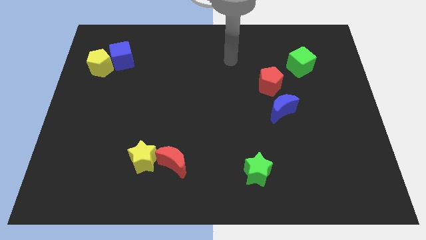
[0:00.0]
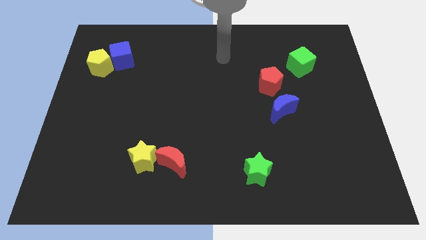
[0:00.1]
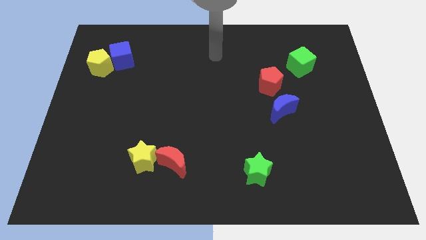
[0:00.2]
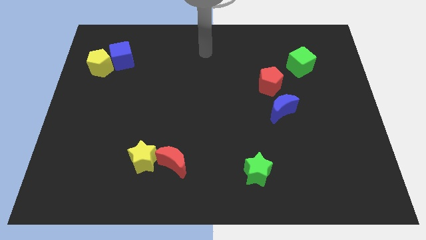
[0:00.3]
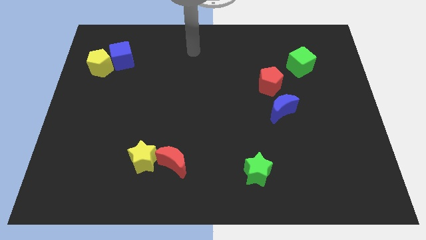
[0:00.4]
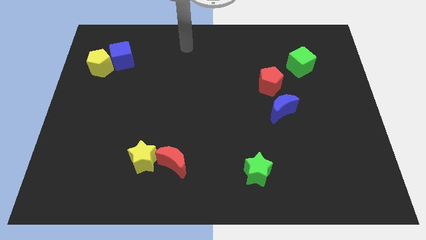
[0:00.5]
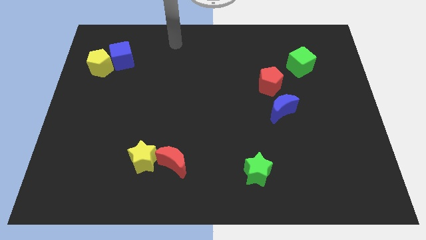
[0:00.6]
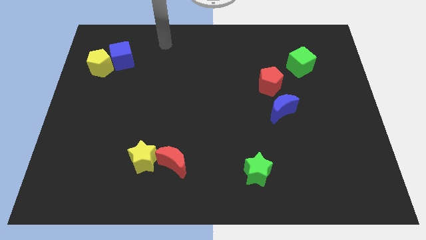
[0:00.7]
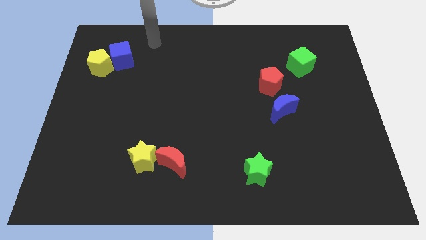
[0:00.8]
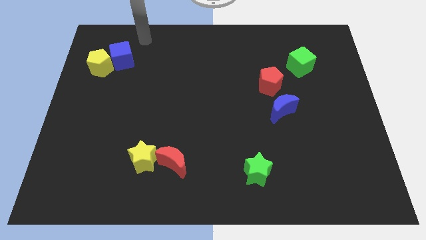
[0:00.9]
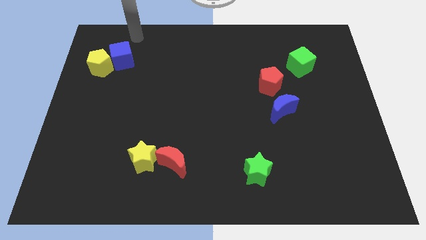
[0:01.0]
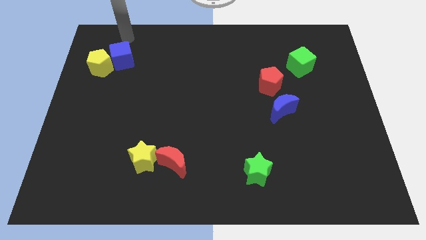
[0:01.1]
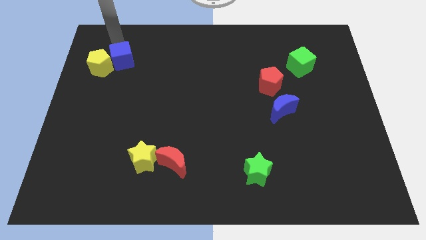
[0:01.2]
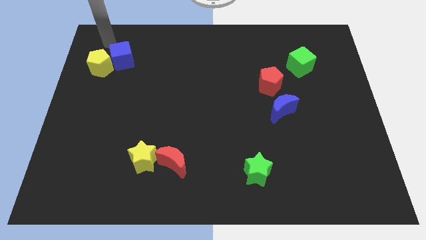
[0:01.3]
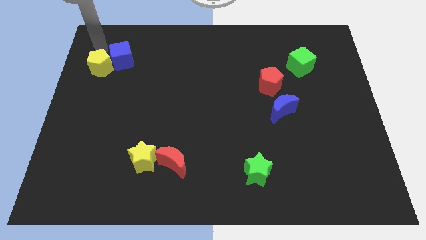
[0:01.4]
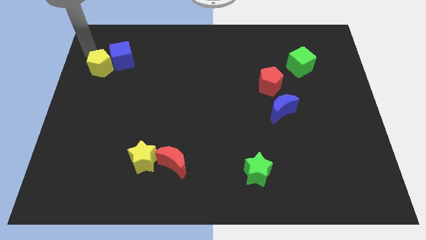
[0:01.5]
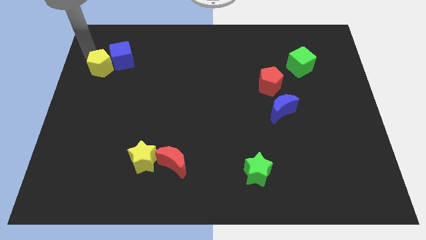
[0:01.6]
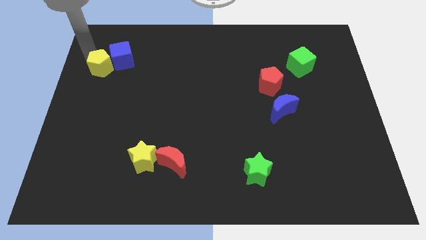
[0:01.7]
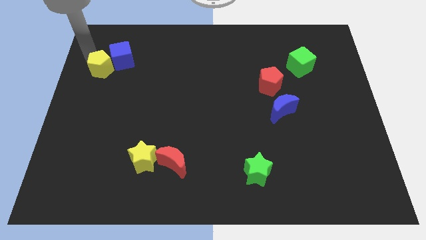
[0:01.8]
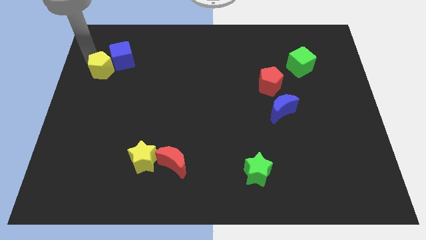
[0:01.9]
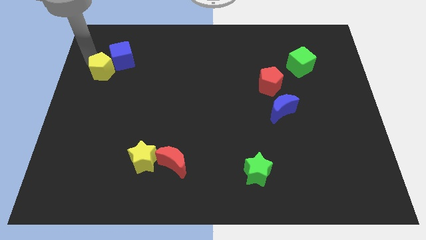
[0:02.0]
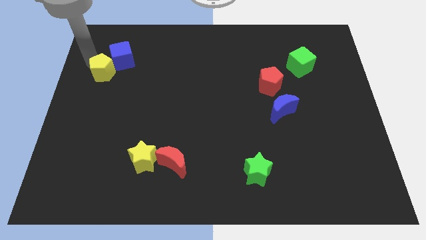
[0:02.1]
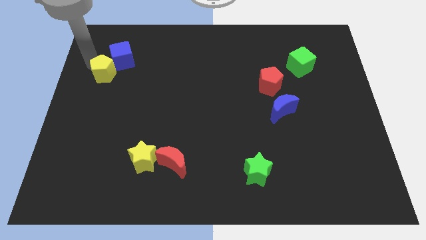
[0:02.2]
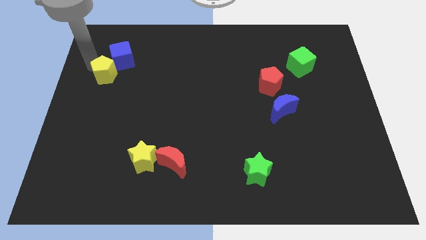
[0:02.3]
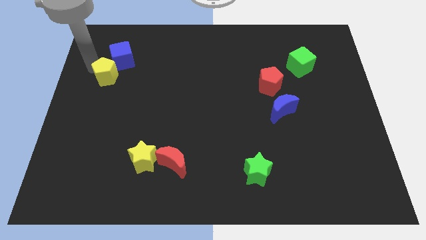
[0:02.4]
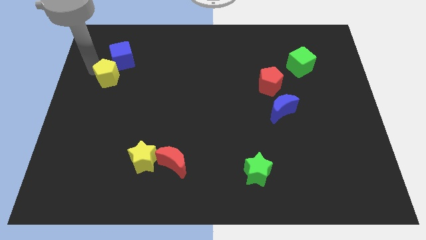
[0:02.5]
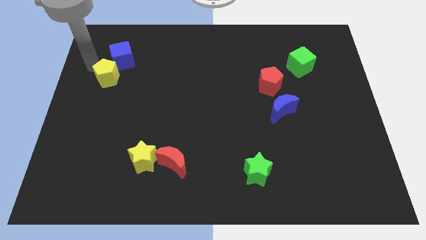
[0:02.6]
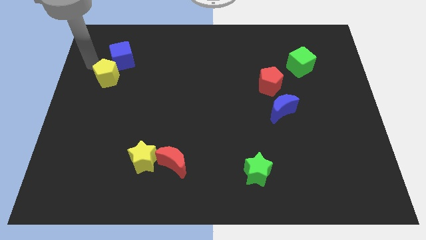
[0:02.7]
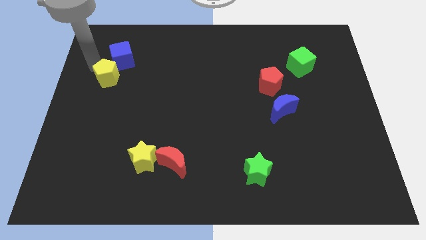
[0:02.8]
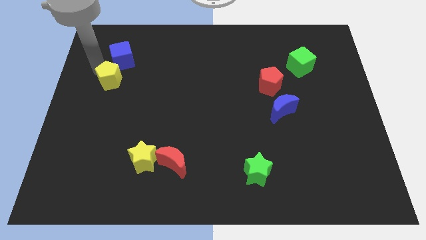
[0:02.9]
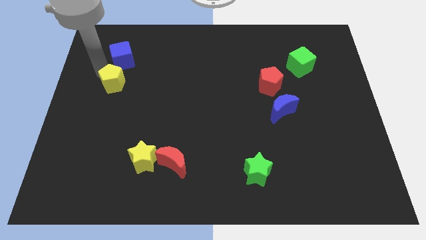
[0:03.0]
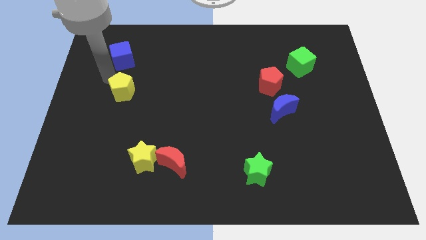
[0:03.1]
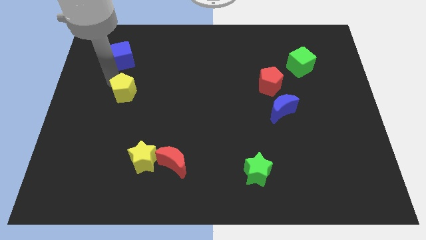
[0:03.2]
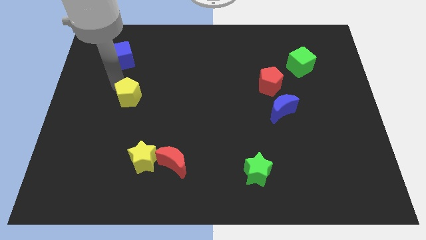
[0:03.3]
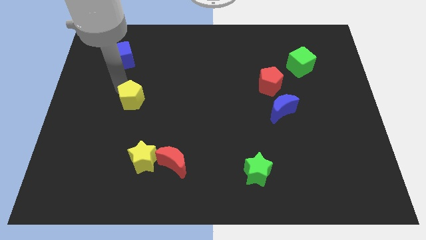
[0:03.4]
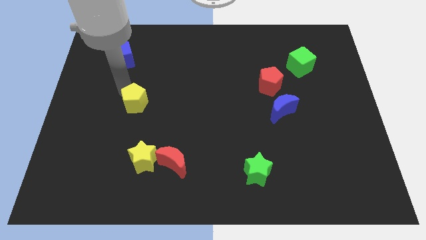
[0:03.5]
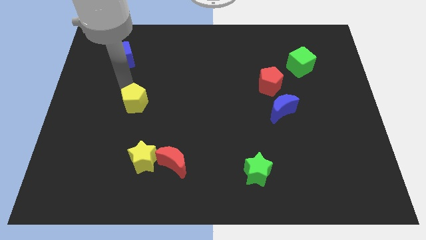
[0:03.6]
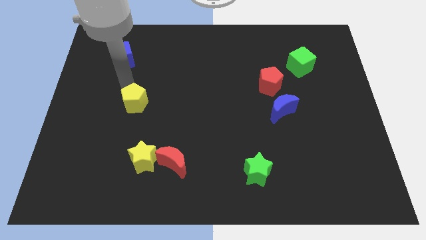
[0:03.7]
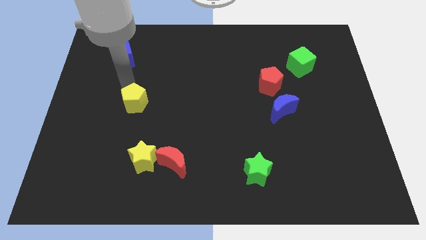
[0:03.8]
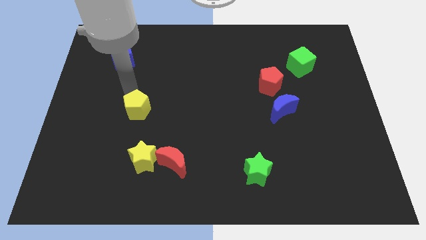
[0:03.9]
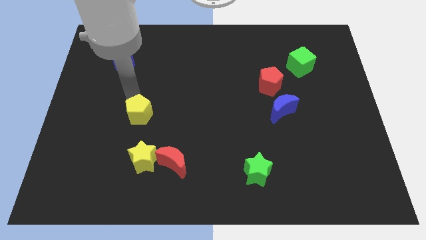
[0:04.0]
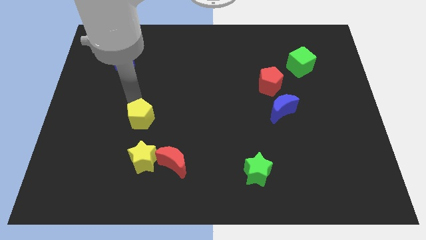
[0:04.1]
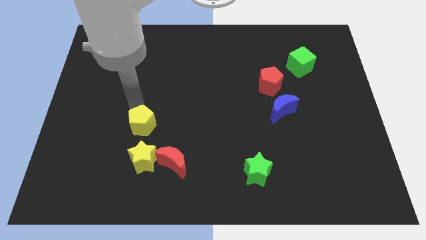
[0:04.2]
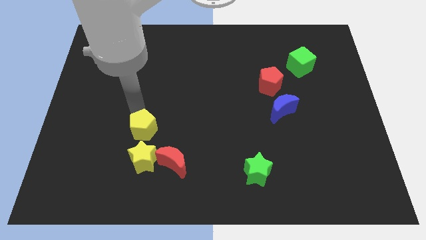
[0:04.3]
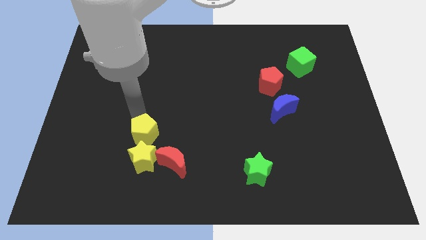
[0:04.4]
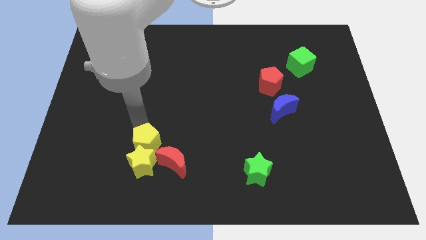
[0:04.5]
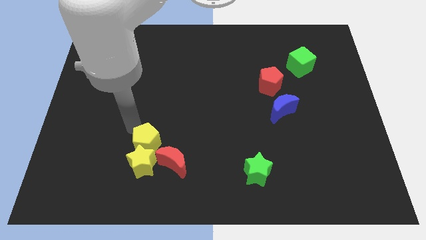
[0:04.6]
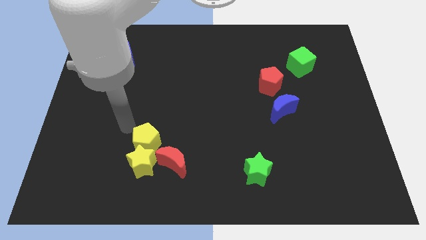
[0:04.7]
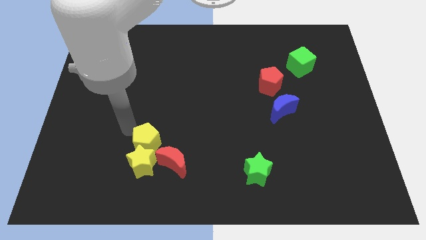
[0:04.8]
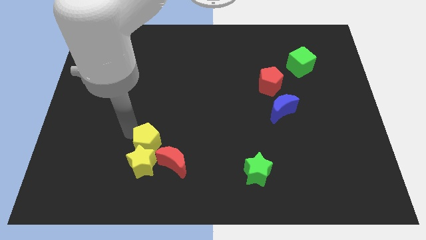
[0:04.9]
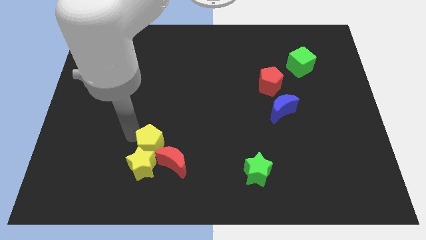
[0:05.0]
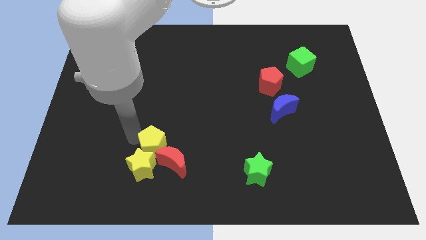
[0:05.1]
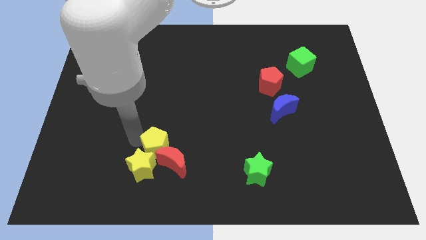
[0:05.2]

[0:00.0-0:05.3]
push the yellow pentagon towards the red moon

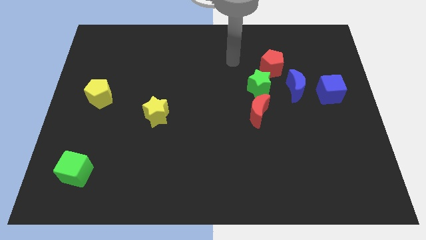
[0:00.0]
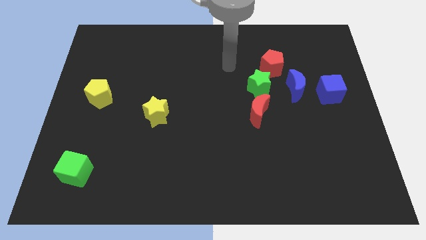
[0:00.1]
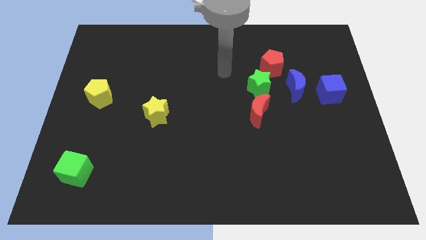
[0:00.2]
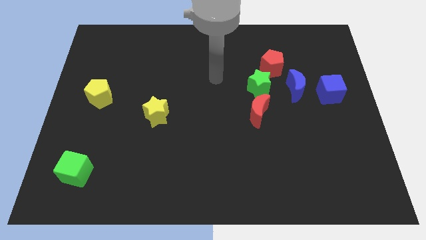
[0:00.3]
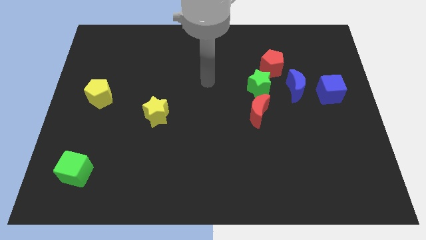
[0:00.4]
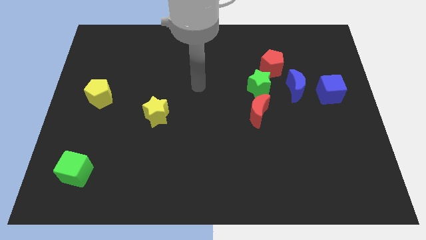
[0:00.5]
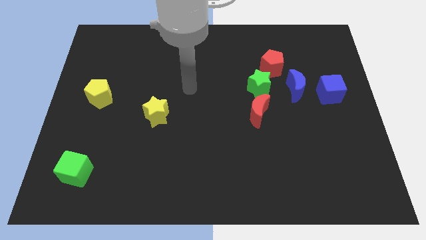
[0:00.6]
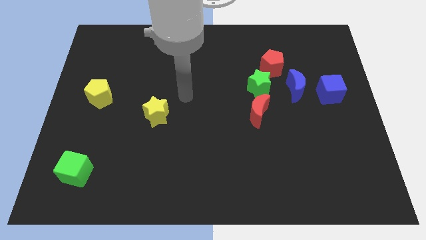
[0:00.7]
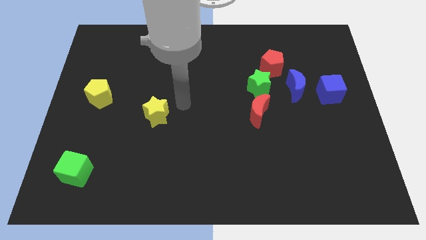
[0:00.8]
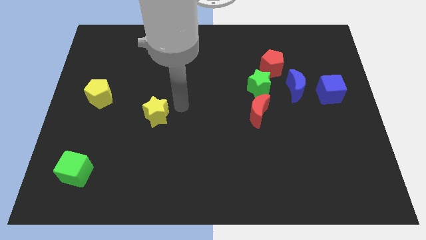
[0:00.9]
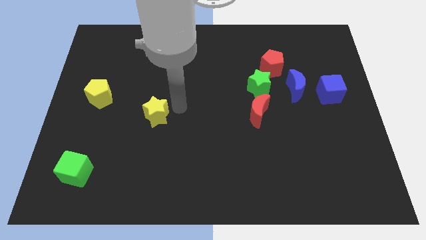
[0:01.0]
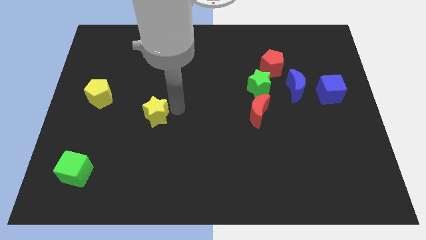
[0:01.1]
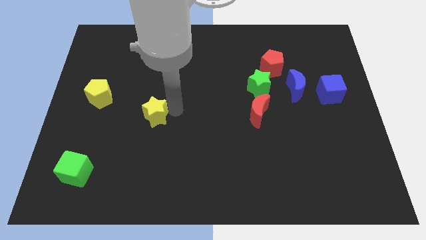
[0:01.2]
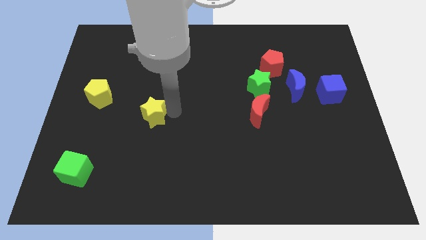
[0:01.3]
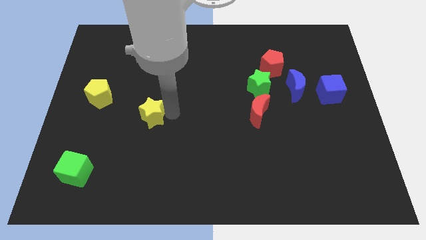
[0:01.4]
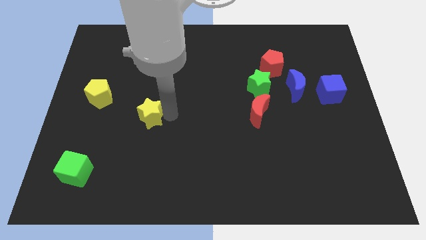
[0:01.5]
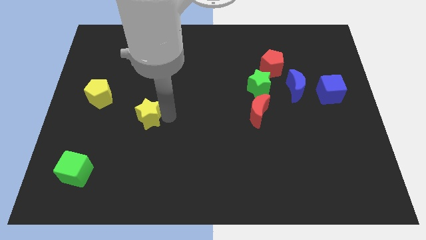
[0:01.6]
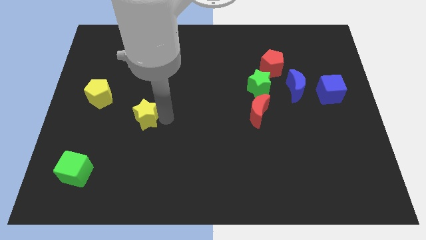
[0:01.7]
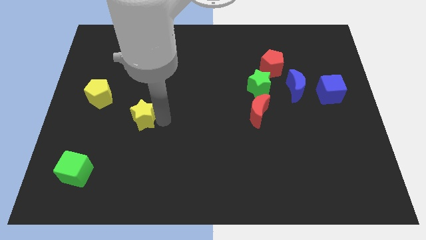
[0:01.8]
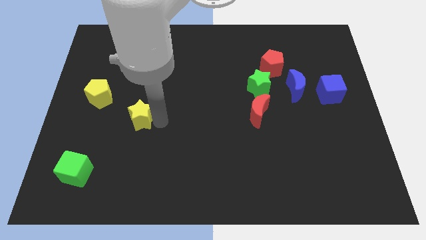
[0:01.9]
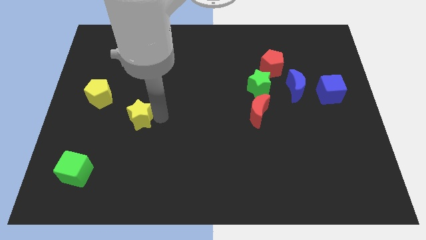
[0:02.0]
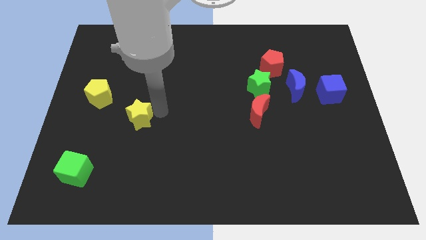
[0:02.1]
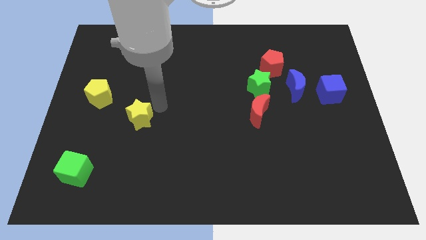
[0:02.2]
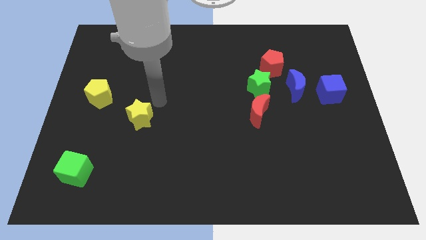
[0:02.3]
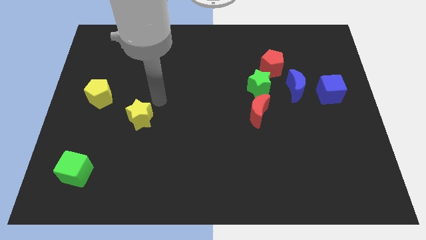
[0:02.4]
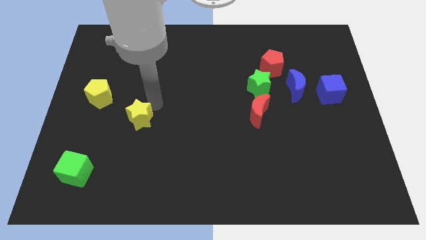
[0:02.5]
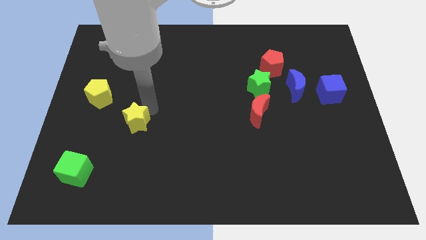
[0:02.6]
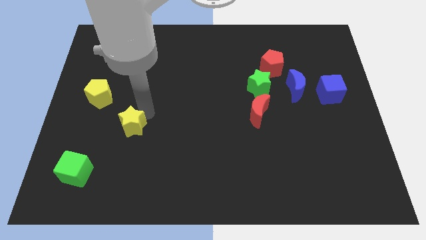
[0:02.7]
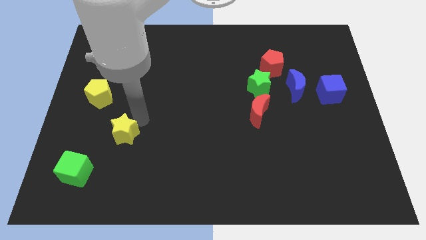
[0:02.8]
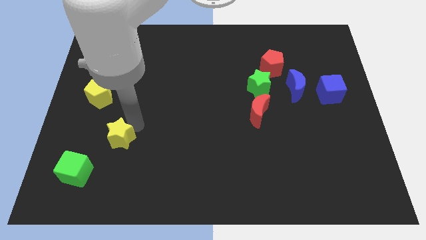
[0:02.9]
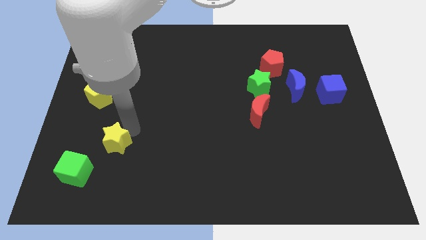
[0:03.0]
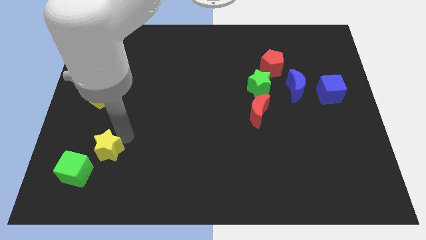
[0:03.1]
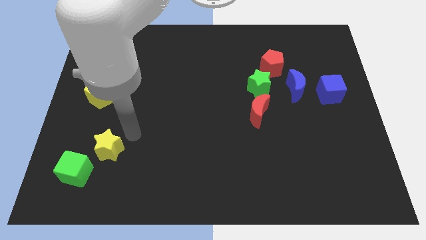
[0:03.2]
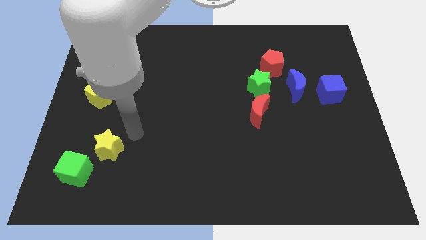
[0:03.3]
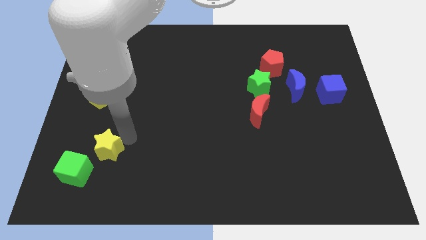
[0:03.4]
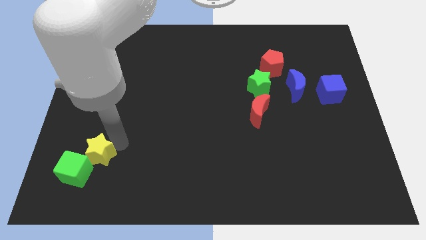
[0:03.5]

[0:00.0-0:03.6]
move the yellow star to the green cube
